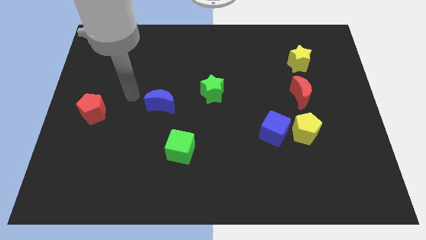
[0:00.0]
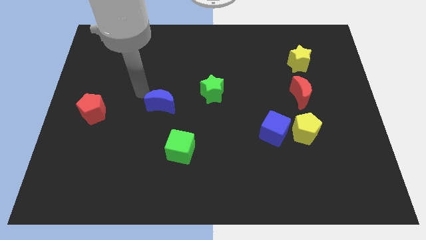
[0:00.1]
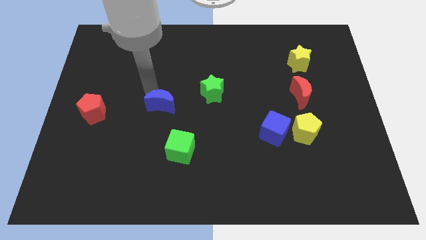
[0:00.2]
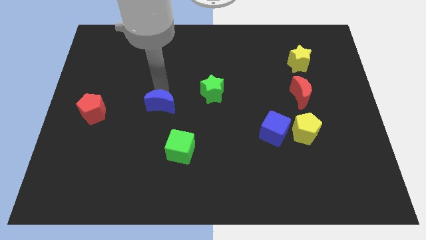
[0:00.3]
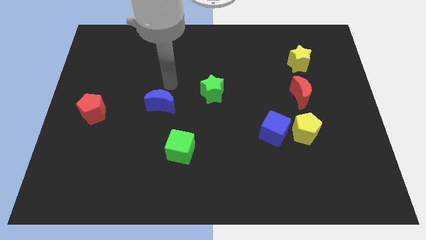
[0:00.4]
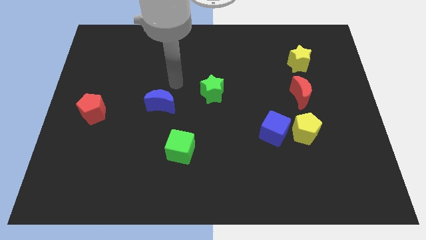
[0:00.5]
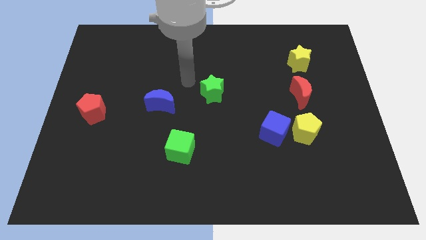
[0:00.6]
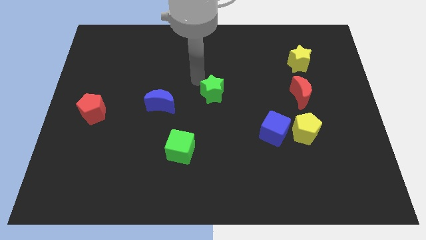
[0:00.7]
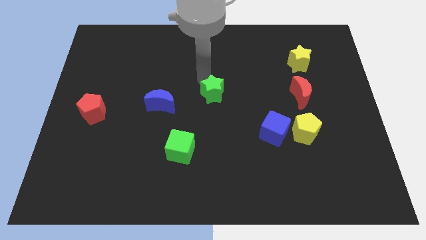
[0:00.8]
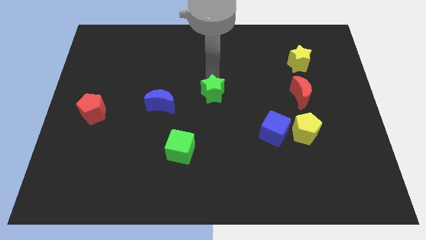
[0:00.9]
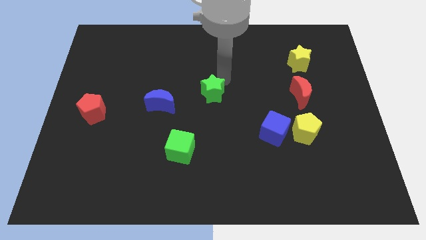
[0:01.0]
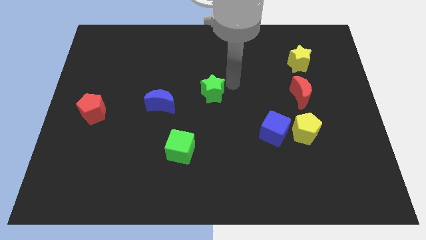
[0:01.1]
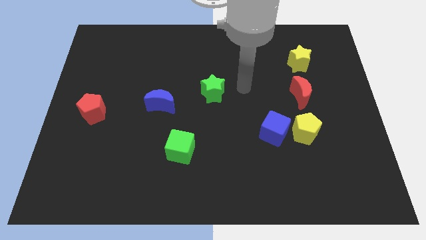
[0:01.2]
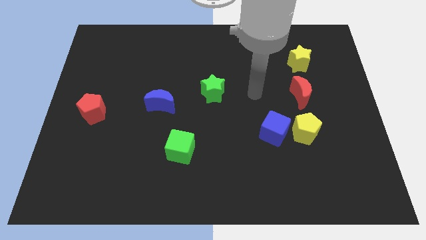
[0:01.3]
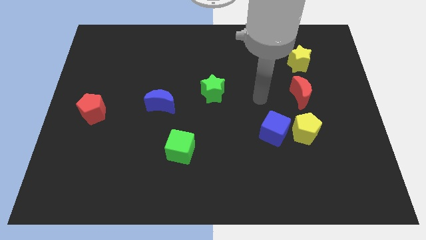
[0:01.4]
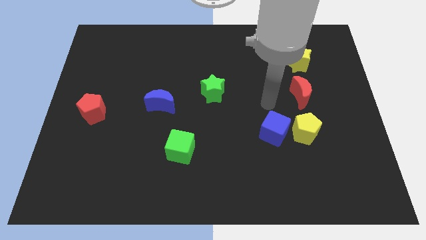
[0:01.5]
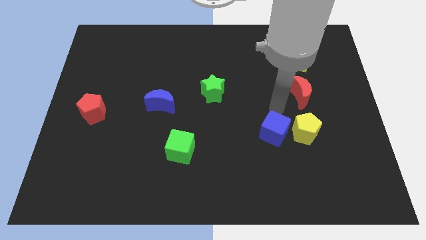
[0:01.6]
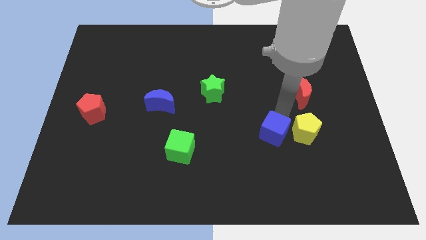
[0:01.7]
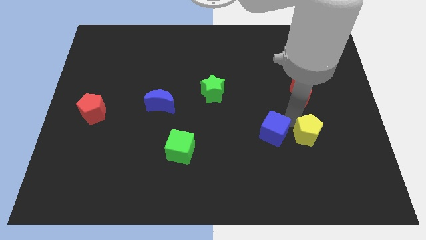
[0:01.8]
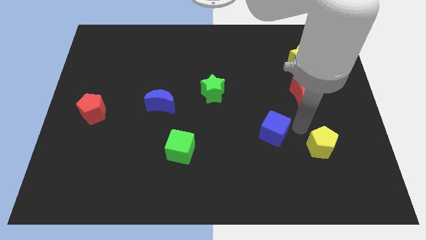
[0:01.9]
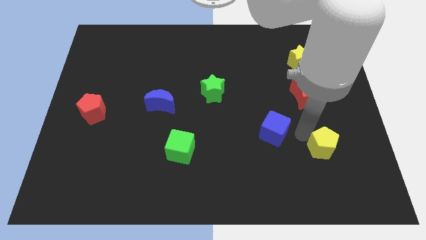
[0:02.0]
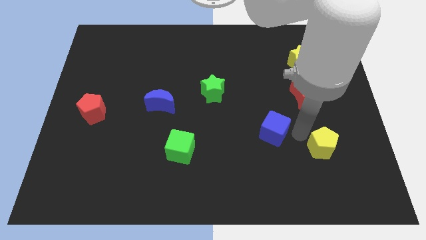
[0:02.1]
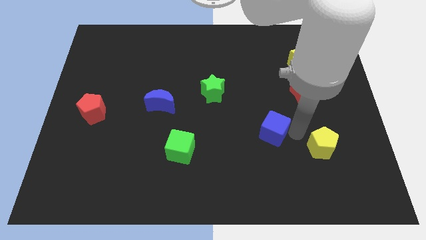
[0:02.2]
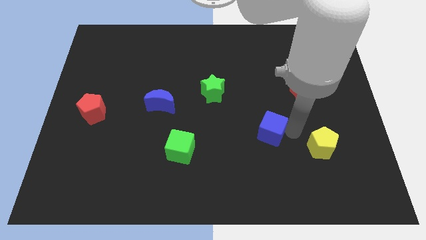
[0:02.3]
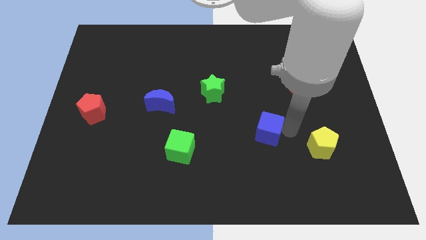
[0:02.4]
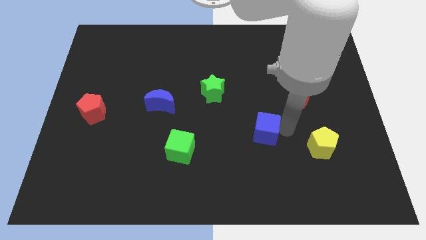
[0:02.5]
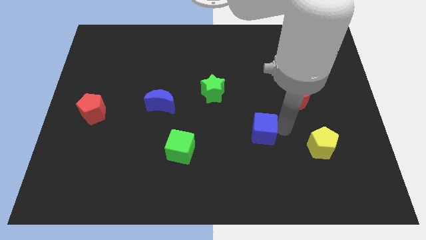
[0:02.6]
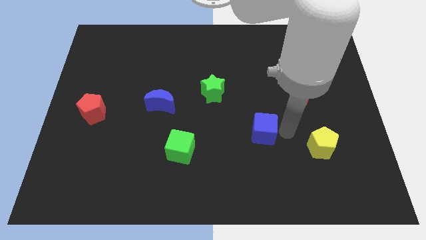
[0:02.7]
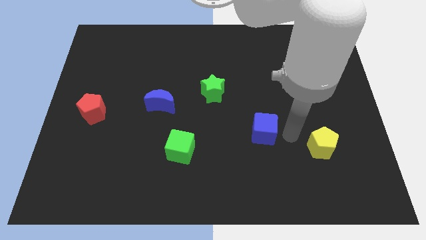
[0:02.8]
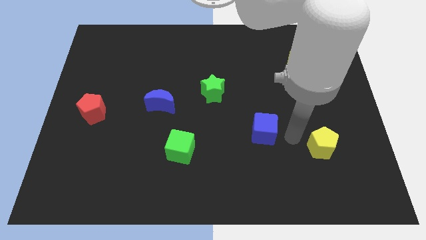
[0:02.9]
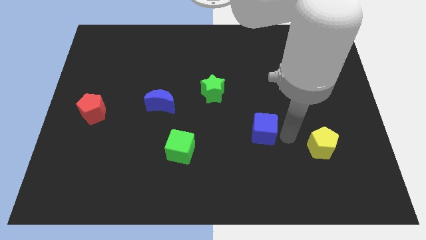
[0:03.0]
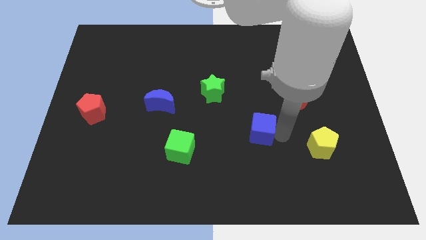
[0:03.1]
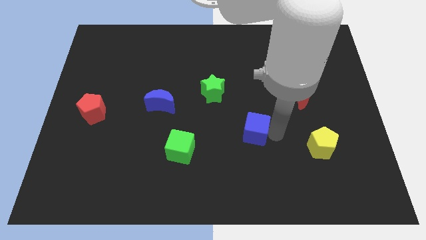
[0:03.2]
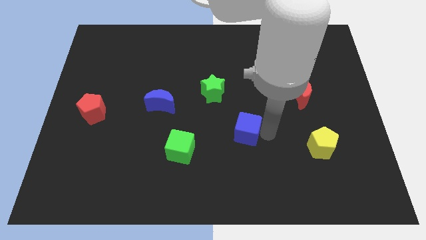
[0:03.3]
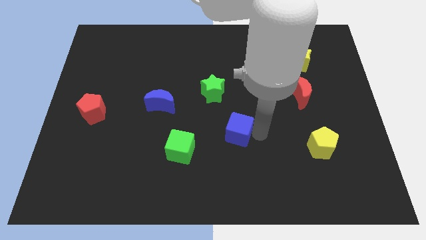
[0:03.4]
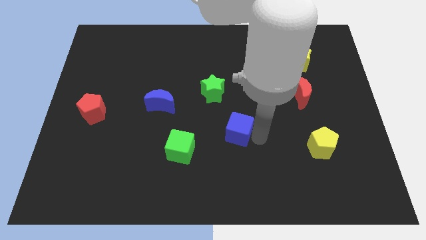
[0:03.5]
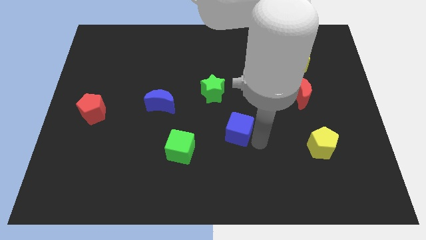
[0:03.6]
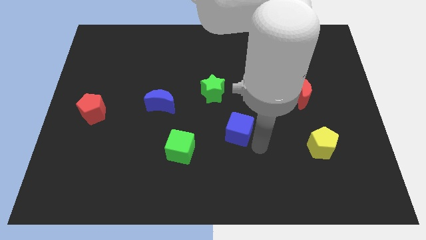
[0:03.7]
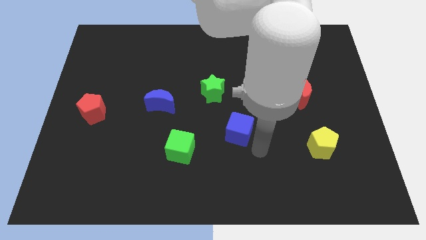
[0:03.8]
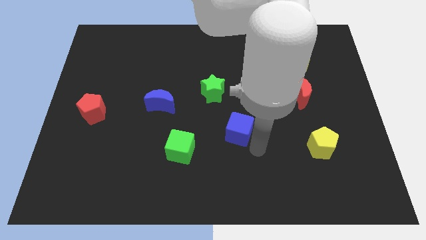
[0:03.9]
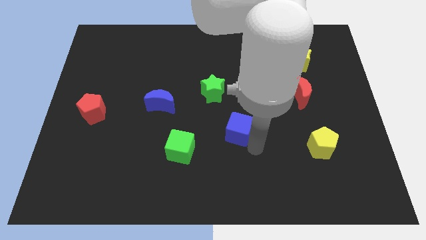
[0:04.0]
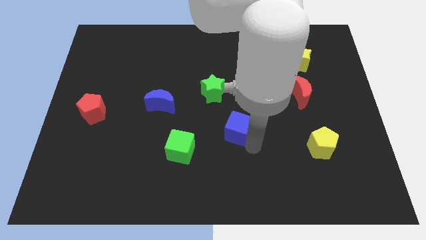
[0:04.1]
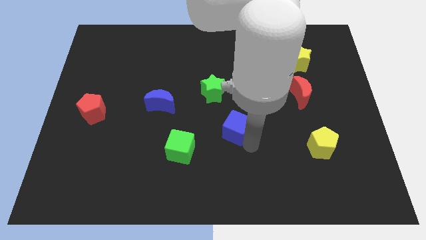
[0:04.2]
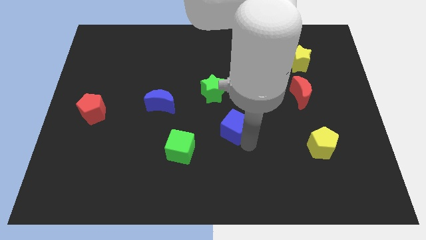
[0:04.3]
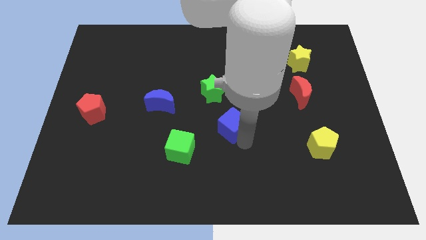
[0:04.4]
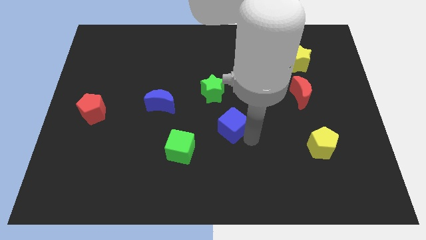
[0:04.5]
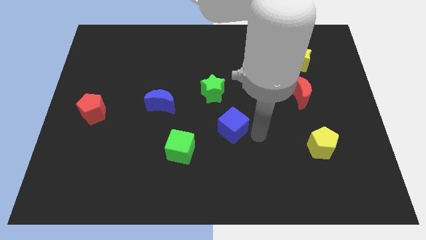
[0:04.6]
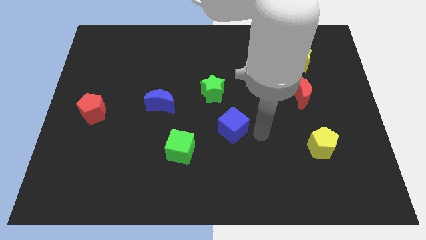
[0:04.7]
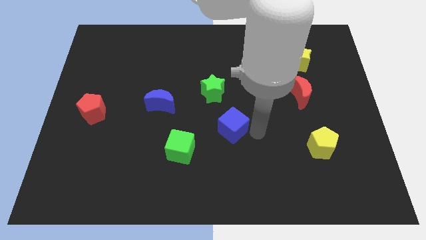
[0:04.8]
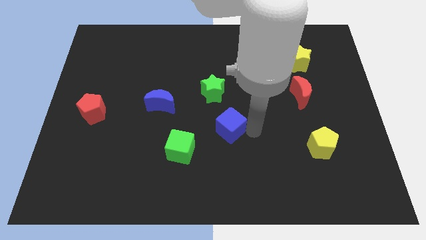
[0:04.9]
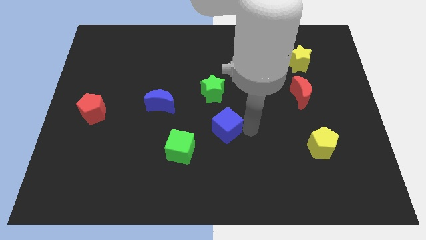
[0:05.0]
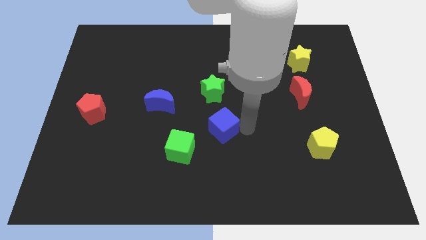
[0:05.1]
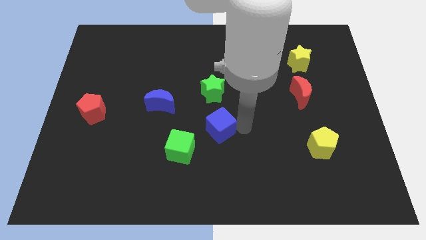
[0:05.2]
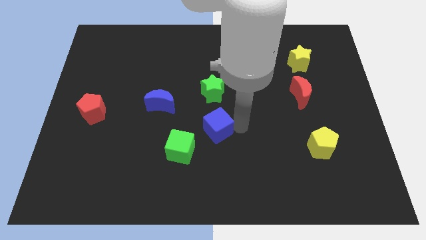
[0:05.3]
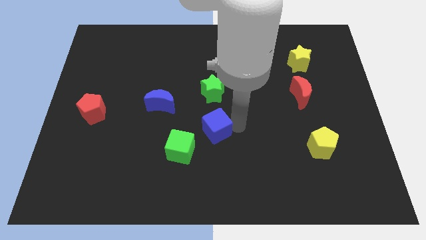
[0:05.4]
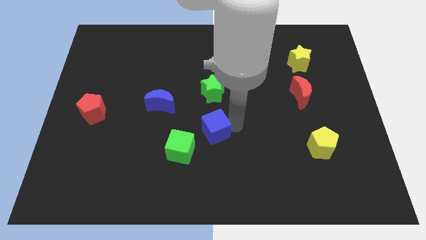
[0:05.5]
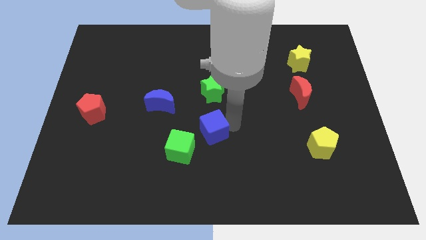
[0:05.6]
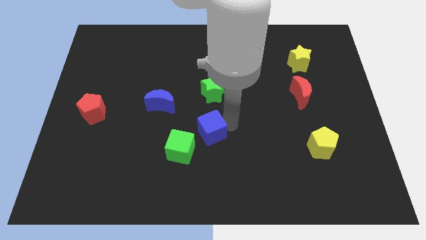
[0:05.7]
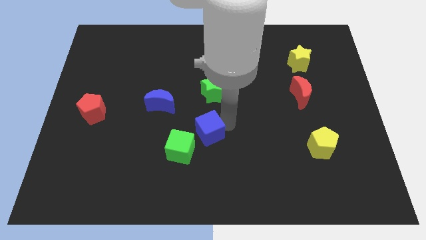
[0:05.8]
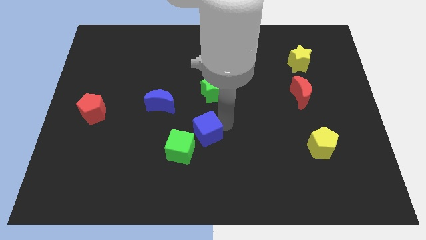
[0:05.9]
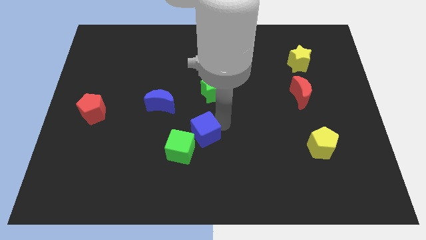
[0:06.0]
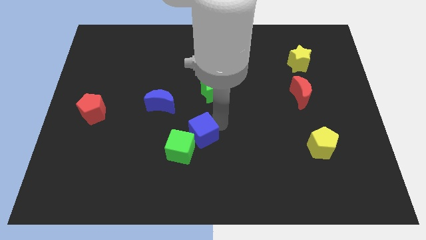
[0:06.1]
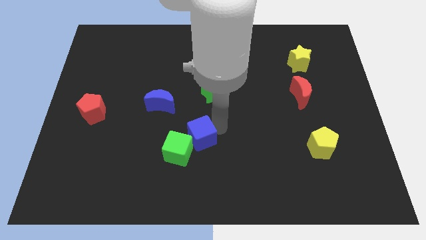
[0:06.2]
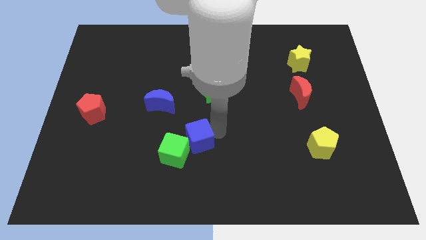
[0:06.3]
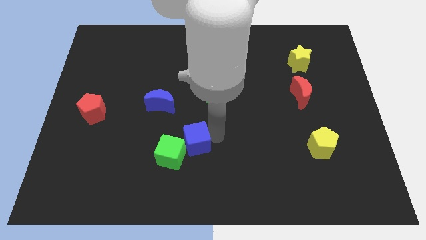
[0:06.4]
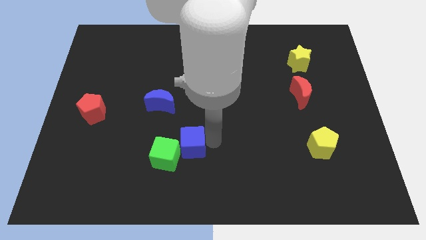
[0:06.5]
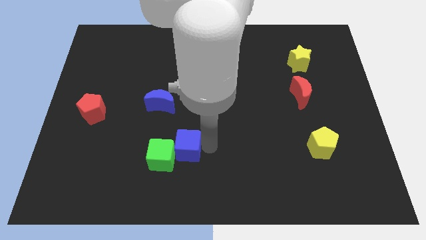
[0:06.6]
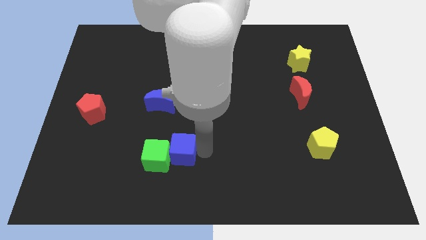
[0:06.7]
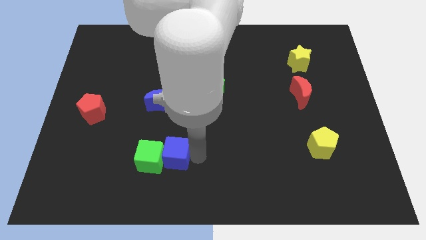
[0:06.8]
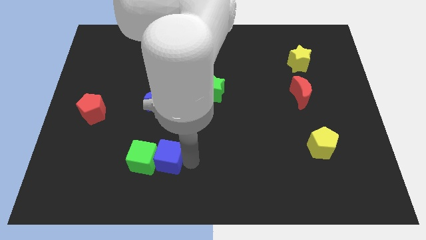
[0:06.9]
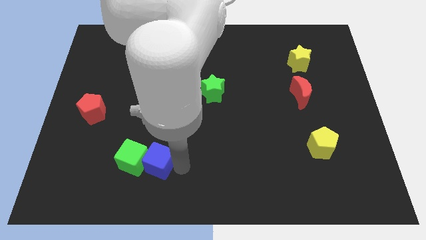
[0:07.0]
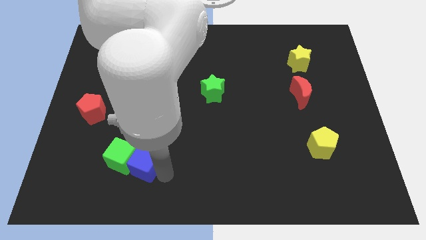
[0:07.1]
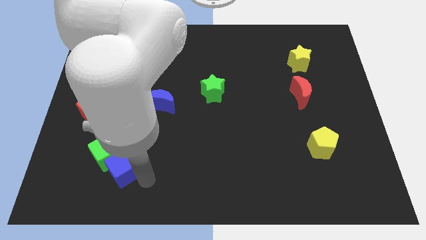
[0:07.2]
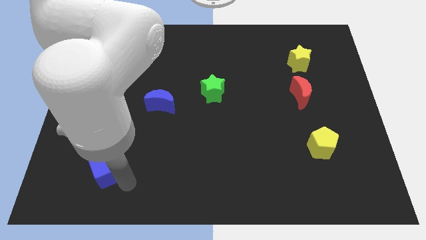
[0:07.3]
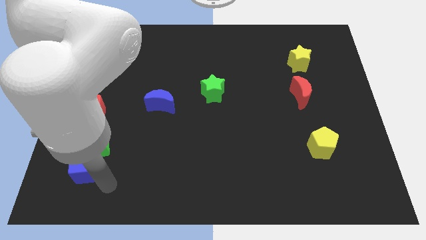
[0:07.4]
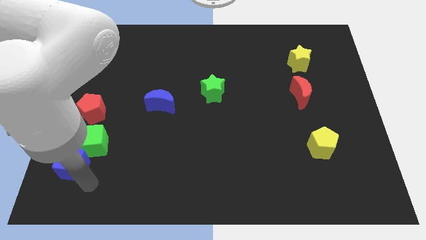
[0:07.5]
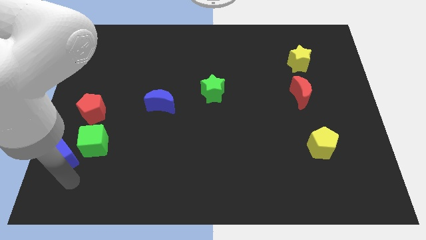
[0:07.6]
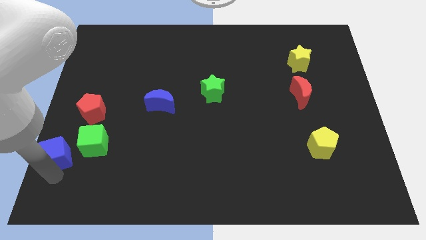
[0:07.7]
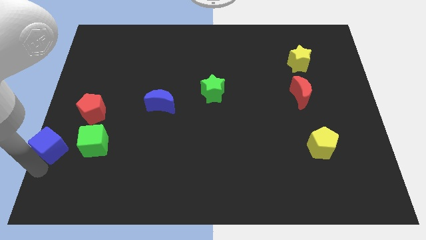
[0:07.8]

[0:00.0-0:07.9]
move the blue cube to the left side of the board
